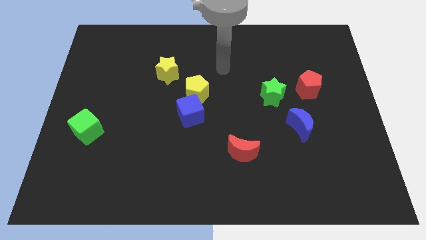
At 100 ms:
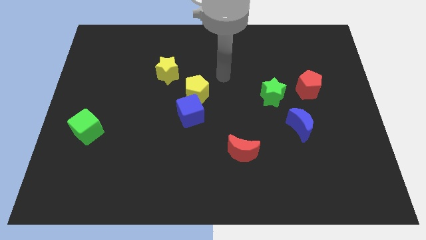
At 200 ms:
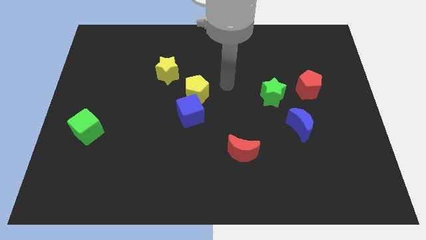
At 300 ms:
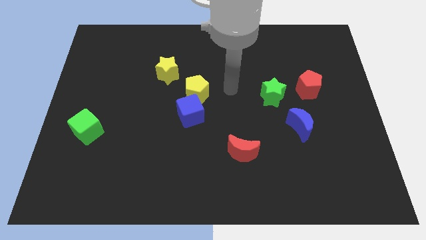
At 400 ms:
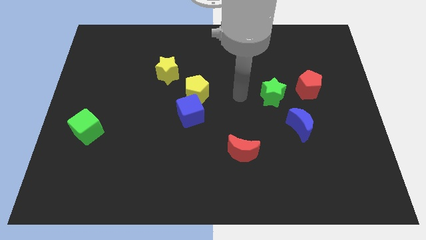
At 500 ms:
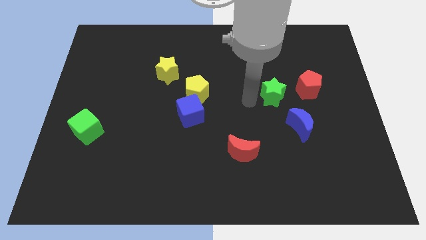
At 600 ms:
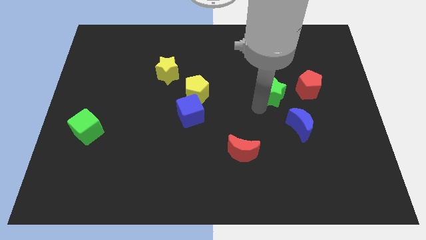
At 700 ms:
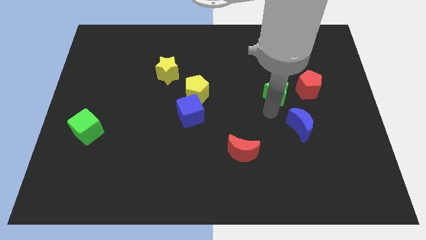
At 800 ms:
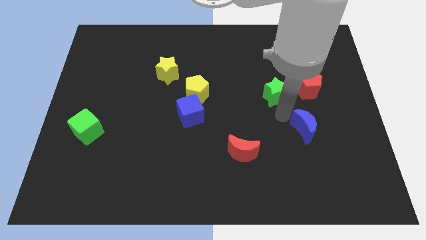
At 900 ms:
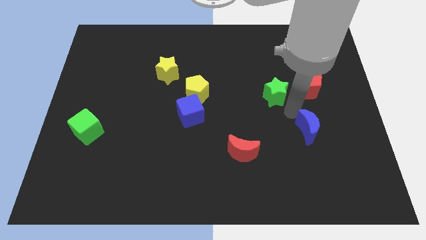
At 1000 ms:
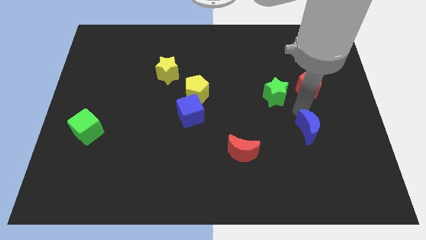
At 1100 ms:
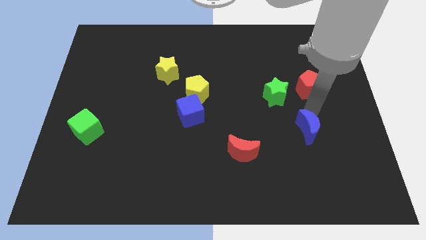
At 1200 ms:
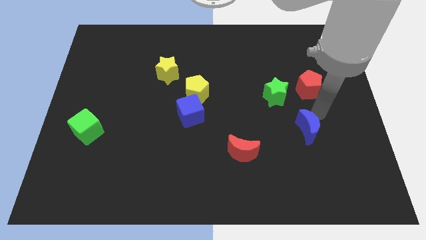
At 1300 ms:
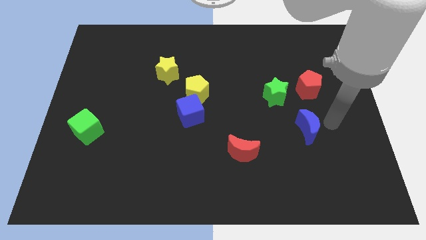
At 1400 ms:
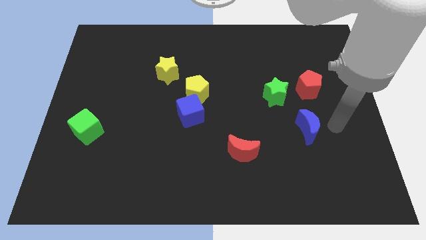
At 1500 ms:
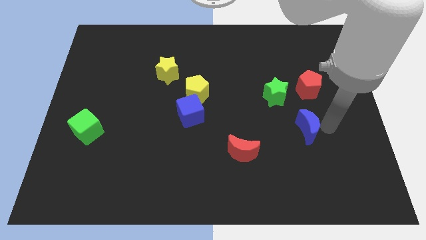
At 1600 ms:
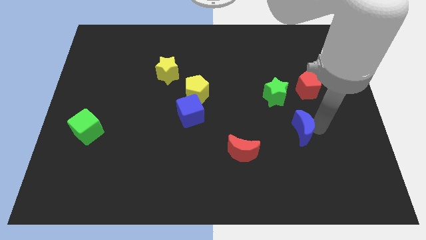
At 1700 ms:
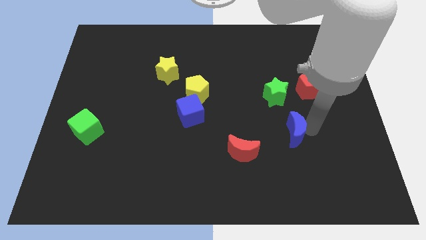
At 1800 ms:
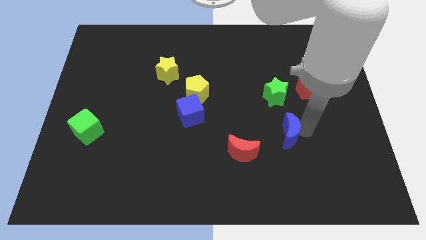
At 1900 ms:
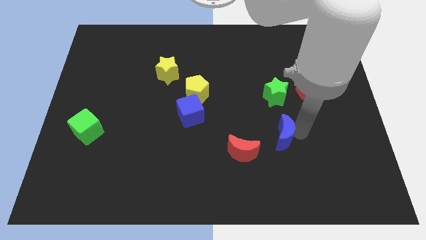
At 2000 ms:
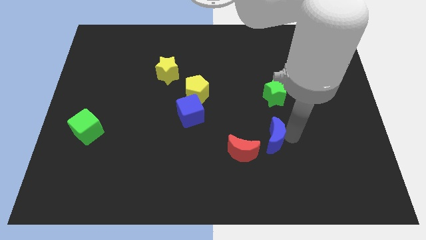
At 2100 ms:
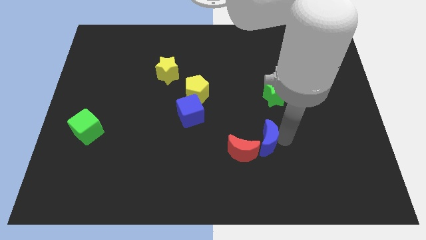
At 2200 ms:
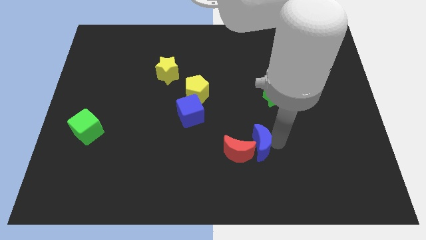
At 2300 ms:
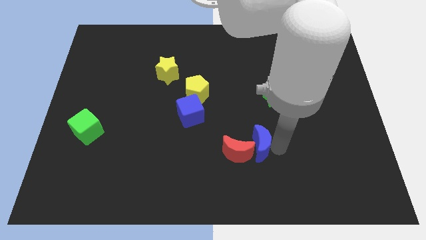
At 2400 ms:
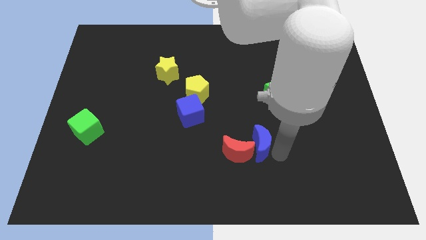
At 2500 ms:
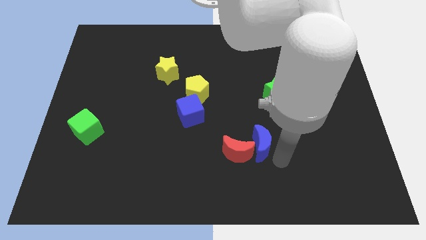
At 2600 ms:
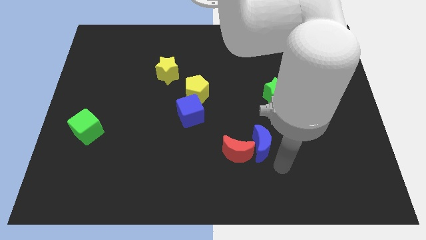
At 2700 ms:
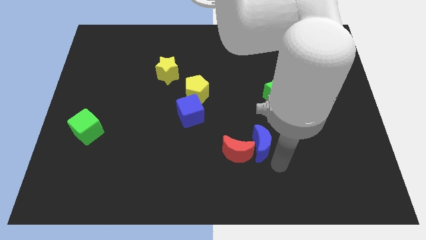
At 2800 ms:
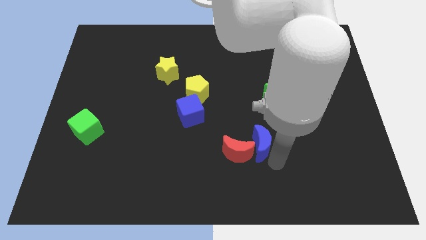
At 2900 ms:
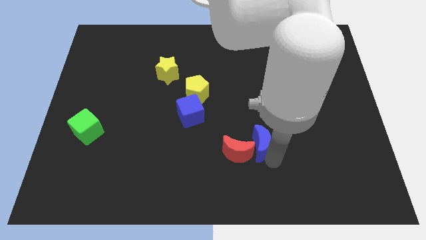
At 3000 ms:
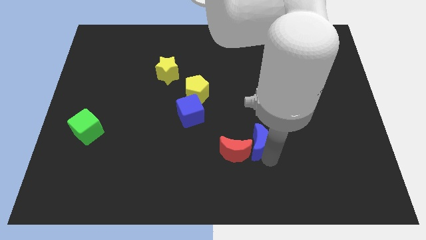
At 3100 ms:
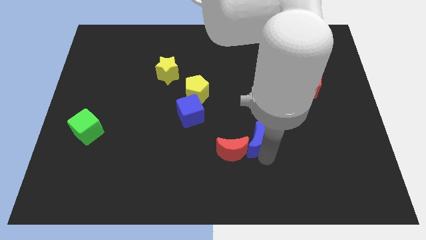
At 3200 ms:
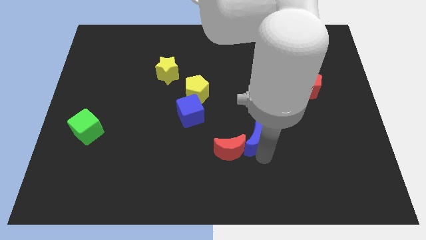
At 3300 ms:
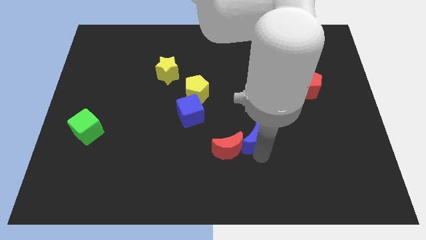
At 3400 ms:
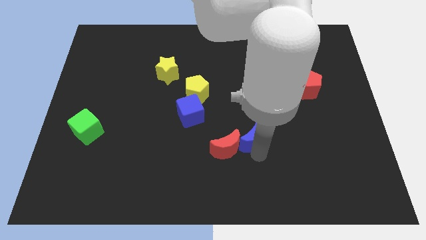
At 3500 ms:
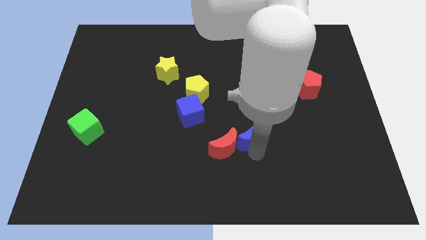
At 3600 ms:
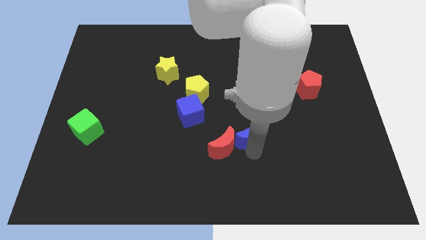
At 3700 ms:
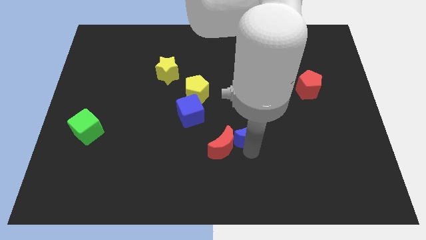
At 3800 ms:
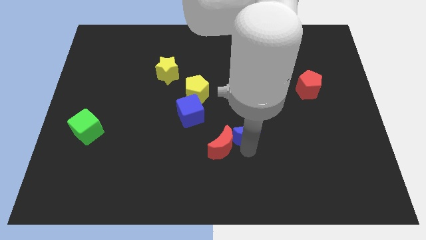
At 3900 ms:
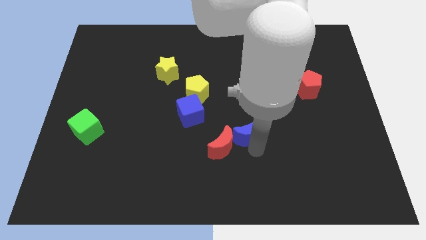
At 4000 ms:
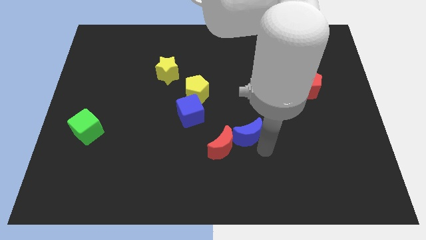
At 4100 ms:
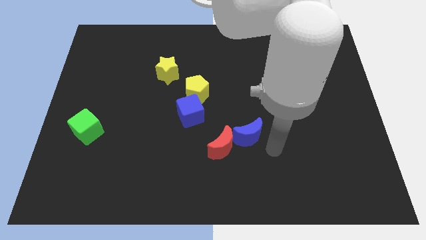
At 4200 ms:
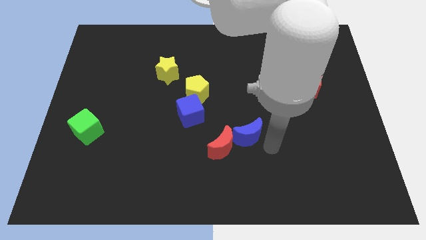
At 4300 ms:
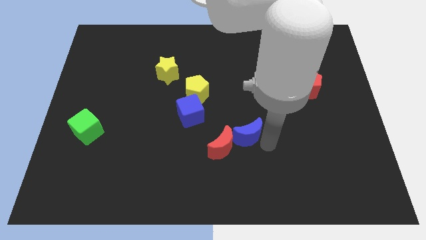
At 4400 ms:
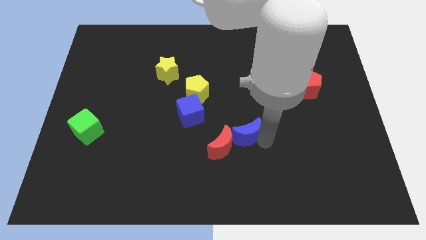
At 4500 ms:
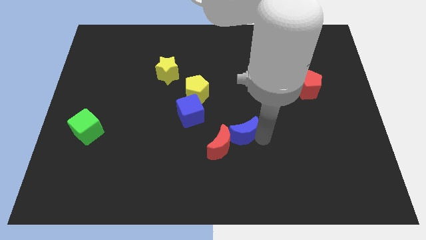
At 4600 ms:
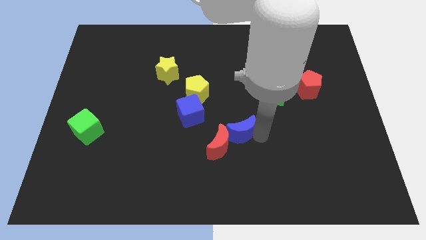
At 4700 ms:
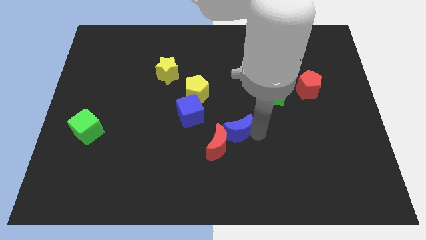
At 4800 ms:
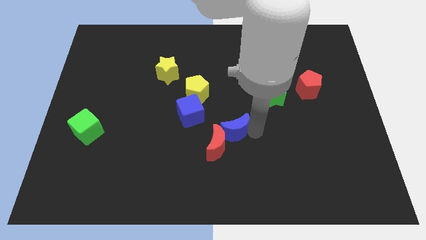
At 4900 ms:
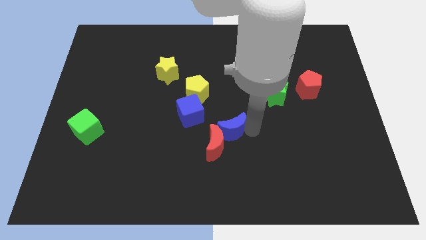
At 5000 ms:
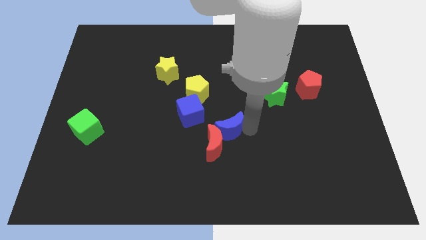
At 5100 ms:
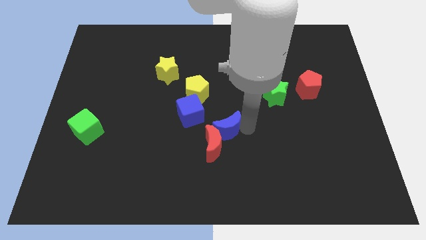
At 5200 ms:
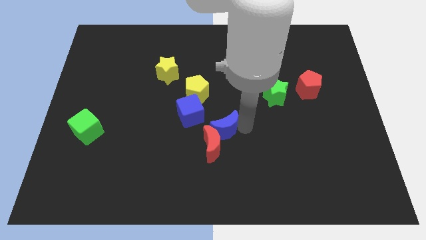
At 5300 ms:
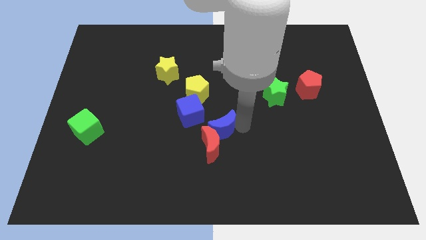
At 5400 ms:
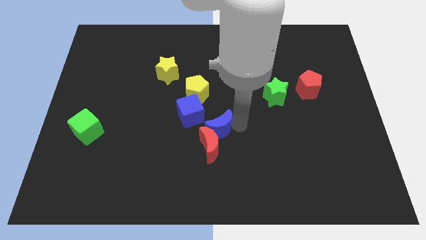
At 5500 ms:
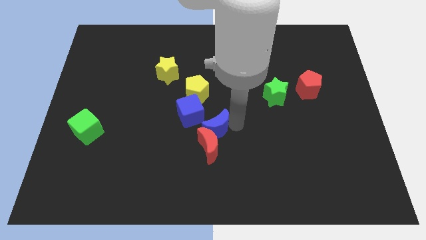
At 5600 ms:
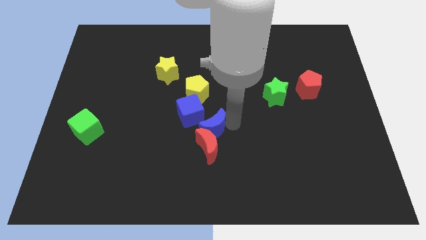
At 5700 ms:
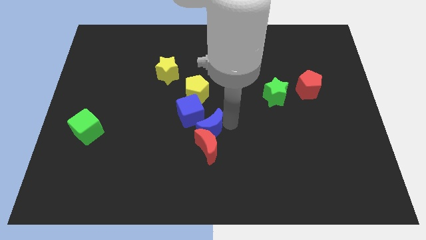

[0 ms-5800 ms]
slide the blue moon left

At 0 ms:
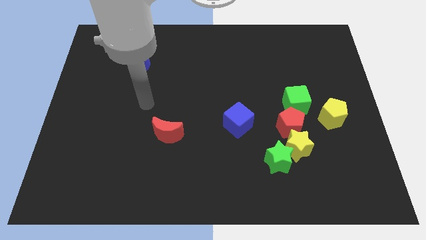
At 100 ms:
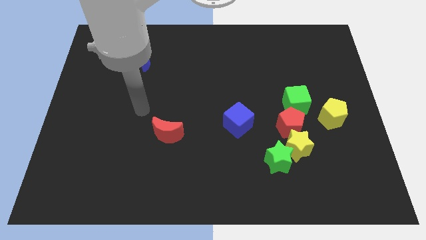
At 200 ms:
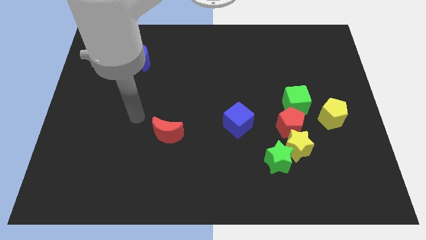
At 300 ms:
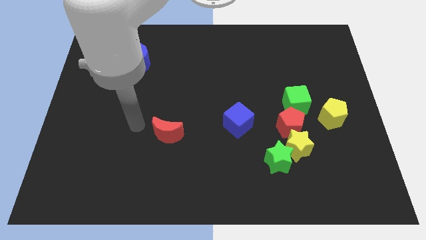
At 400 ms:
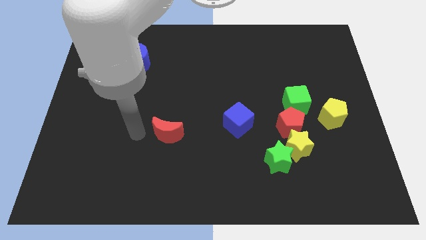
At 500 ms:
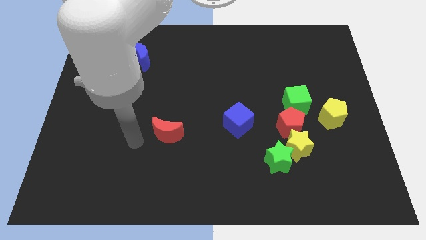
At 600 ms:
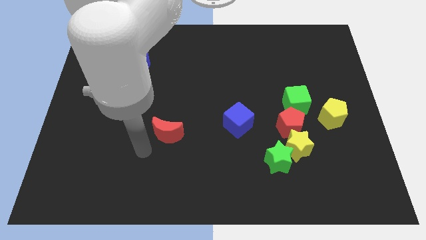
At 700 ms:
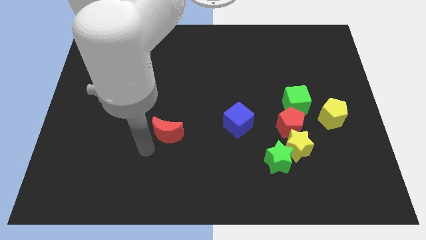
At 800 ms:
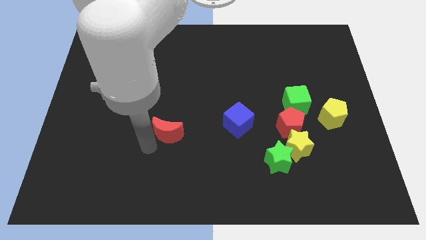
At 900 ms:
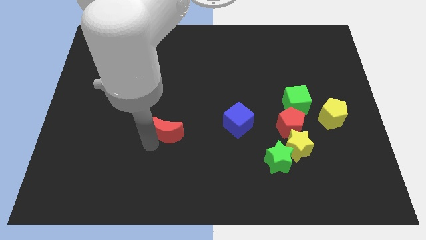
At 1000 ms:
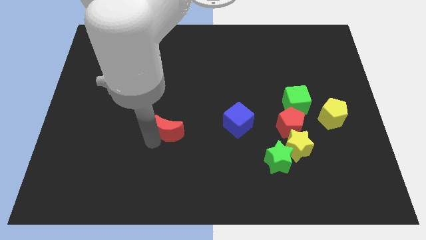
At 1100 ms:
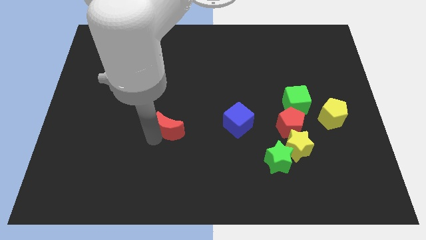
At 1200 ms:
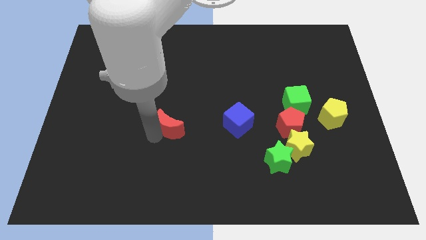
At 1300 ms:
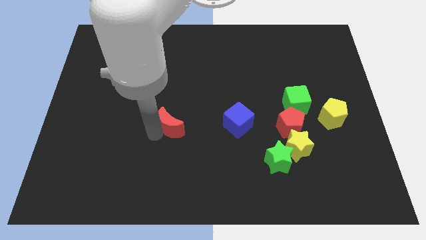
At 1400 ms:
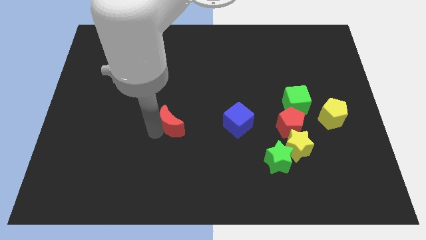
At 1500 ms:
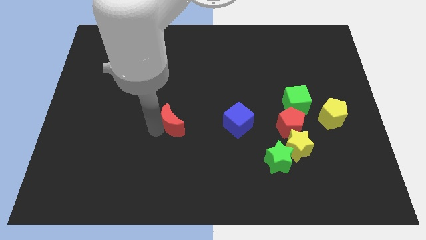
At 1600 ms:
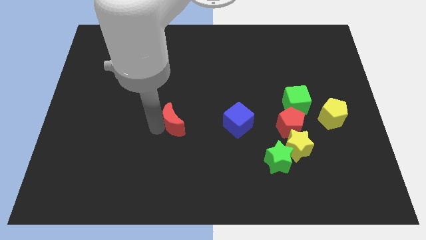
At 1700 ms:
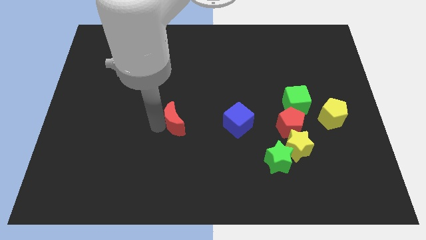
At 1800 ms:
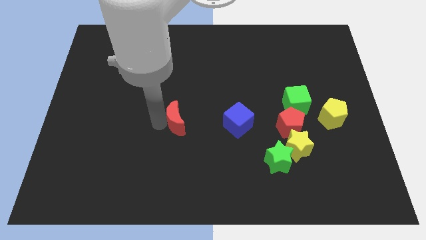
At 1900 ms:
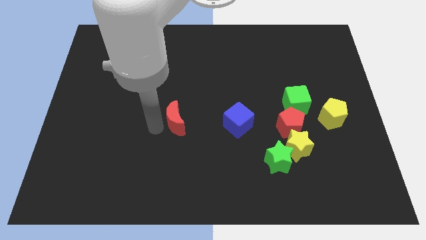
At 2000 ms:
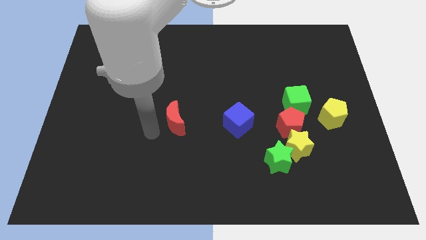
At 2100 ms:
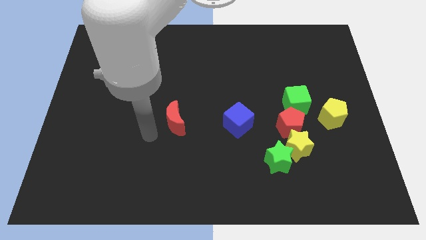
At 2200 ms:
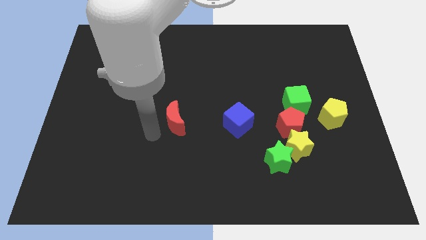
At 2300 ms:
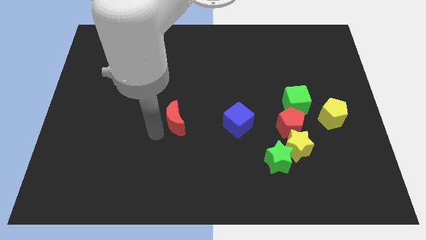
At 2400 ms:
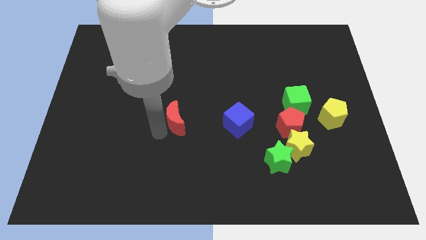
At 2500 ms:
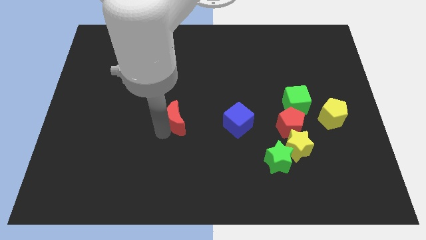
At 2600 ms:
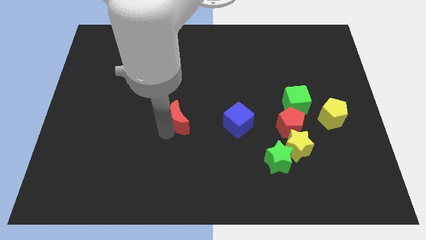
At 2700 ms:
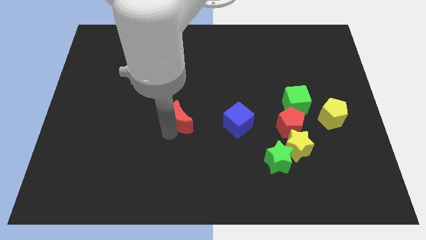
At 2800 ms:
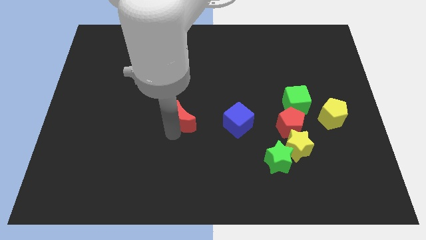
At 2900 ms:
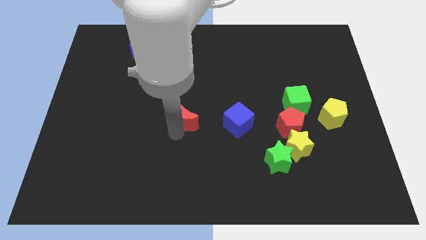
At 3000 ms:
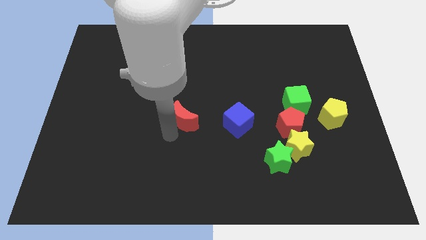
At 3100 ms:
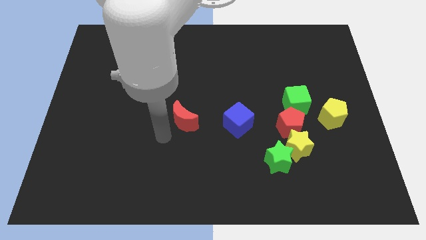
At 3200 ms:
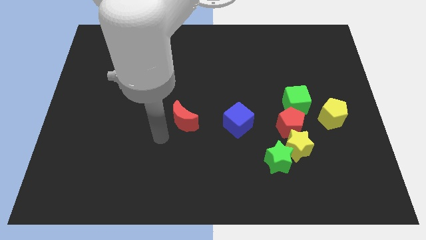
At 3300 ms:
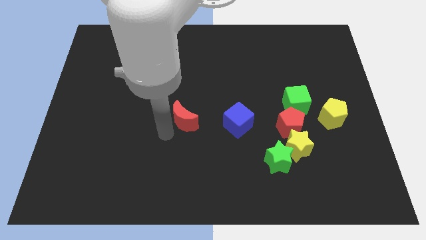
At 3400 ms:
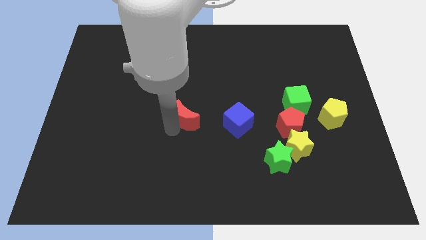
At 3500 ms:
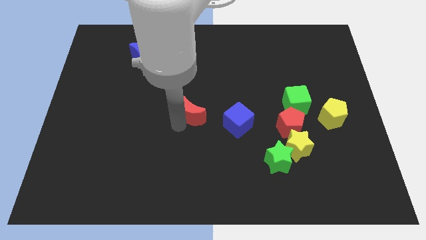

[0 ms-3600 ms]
slide the red moon a little diagonally up and to the right
